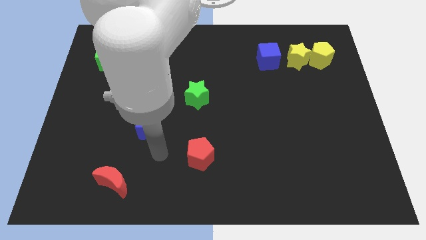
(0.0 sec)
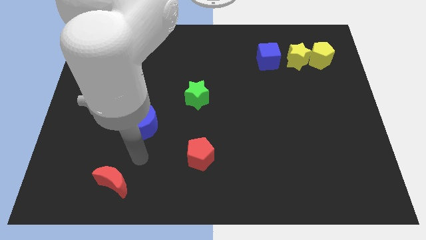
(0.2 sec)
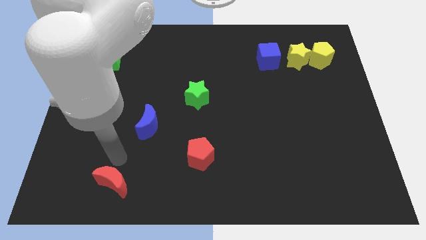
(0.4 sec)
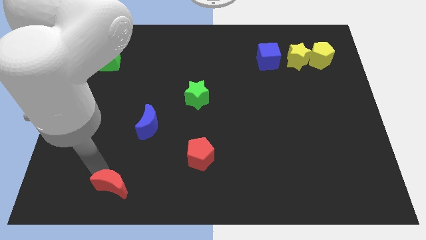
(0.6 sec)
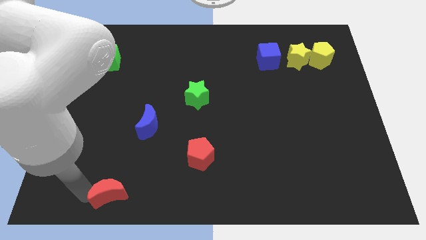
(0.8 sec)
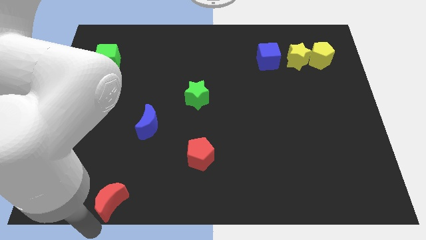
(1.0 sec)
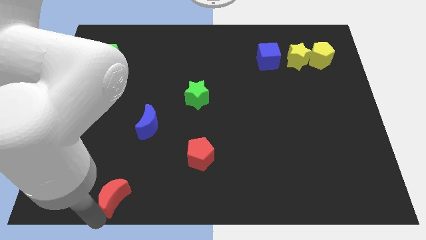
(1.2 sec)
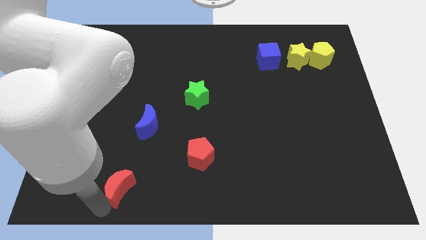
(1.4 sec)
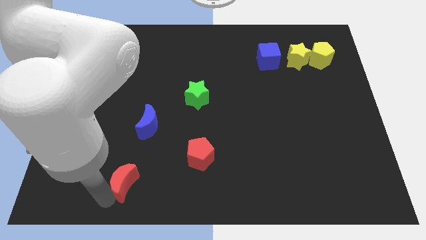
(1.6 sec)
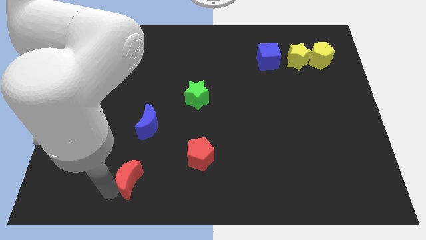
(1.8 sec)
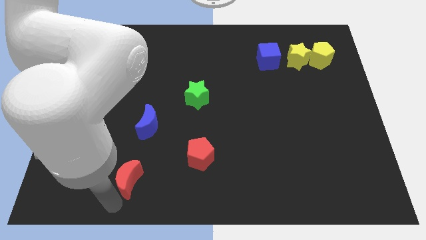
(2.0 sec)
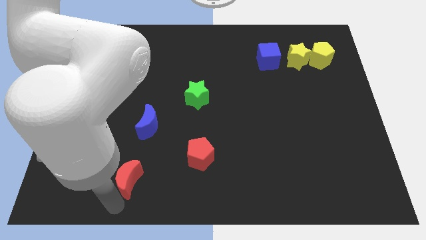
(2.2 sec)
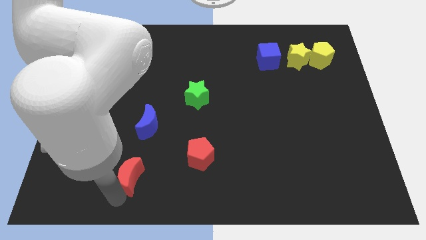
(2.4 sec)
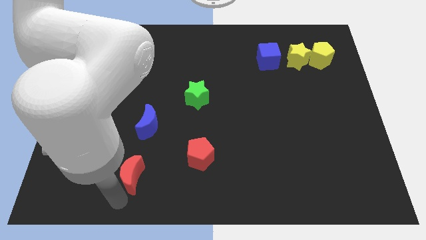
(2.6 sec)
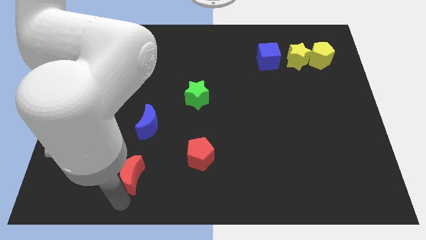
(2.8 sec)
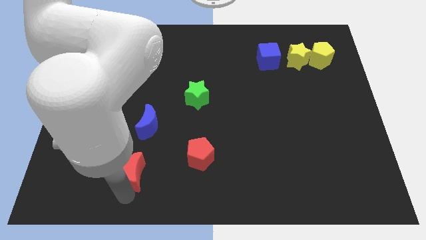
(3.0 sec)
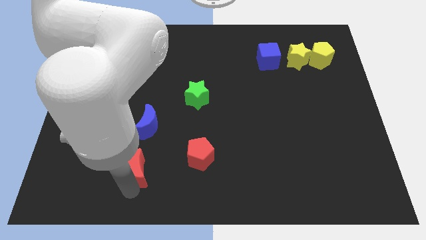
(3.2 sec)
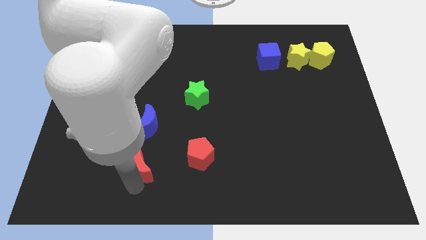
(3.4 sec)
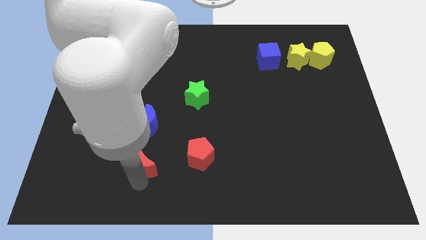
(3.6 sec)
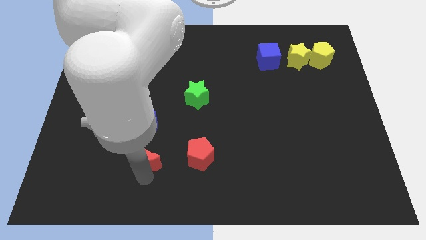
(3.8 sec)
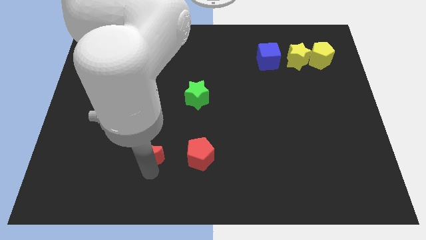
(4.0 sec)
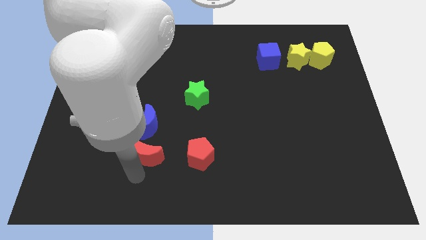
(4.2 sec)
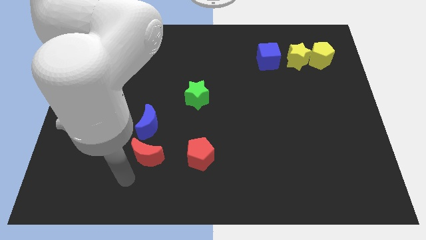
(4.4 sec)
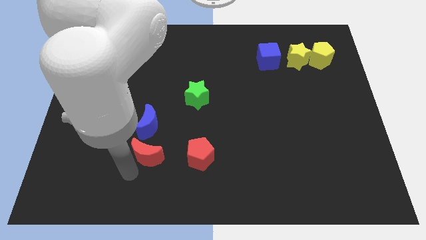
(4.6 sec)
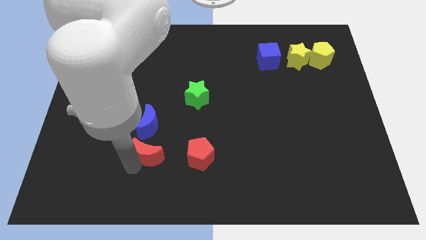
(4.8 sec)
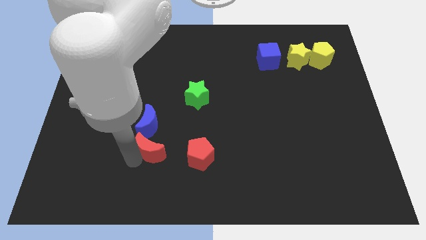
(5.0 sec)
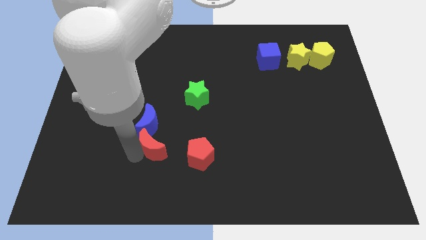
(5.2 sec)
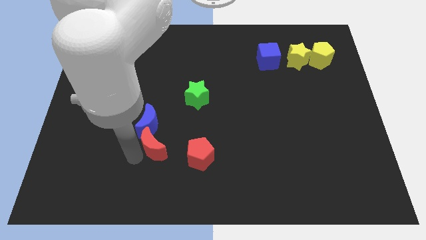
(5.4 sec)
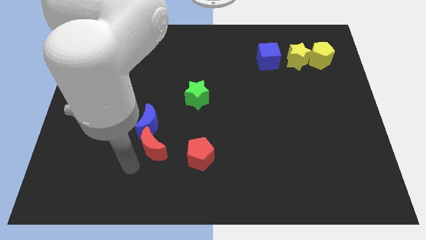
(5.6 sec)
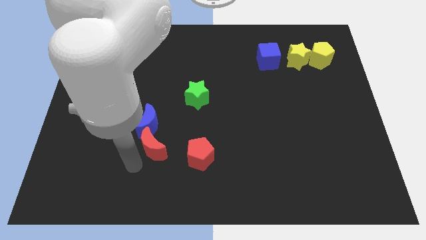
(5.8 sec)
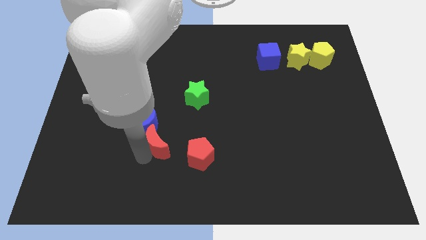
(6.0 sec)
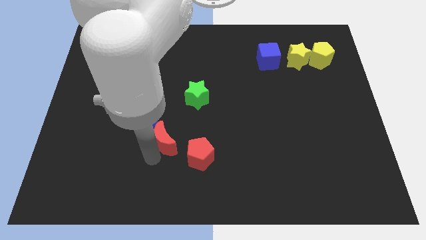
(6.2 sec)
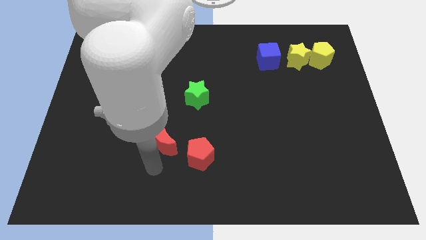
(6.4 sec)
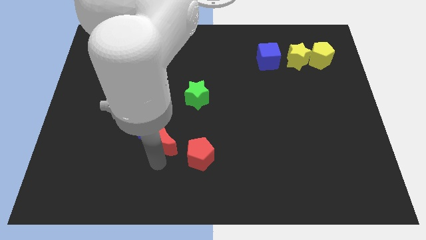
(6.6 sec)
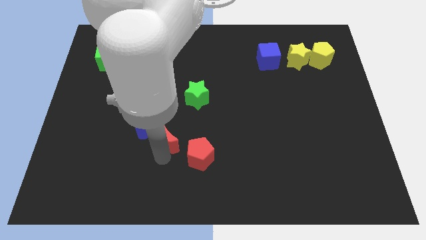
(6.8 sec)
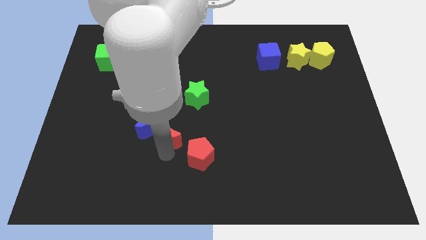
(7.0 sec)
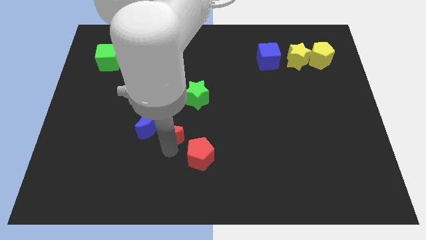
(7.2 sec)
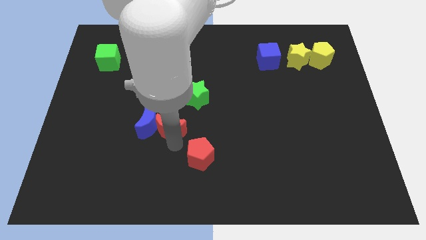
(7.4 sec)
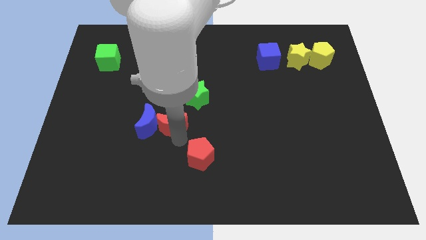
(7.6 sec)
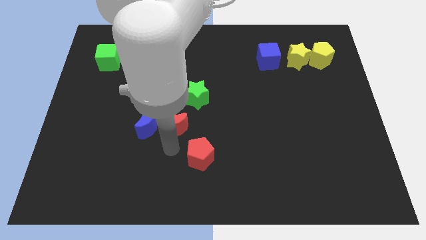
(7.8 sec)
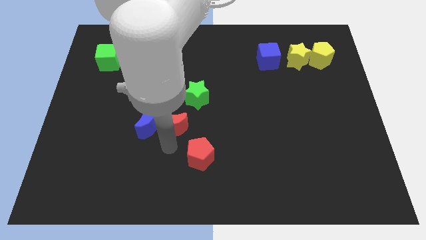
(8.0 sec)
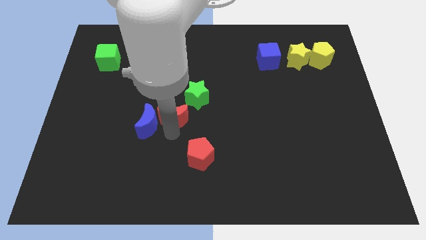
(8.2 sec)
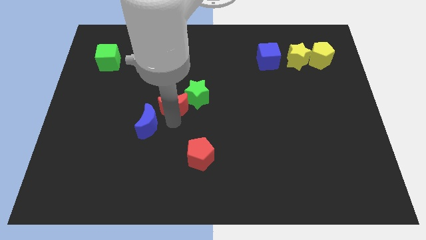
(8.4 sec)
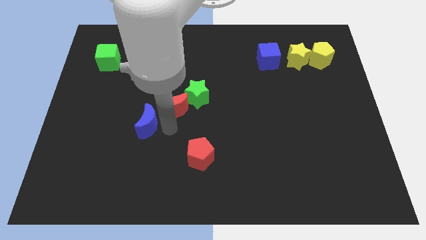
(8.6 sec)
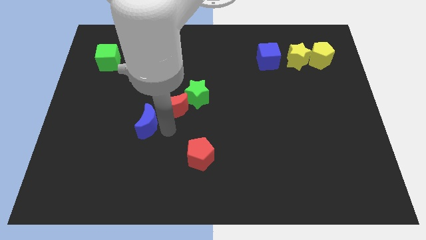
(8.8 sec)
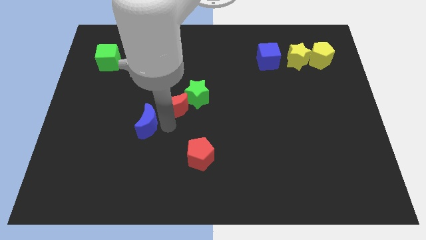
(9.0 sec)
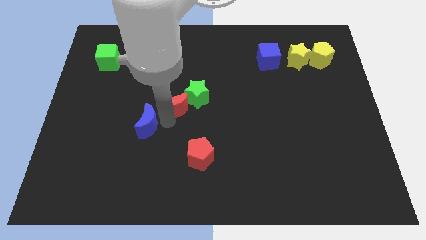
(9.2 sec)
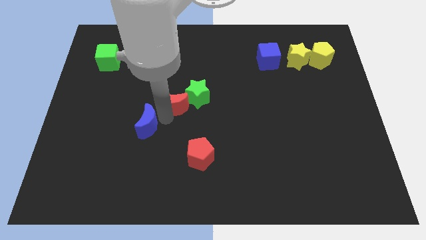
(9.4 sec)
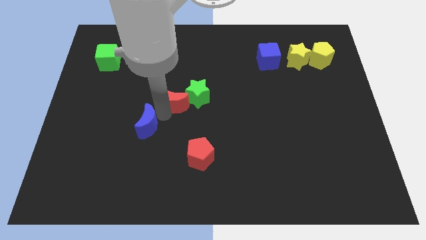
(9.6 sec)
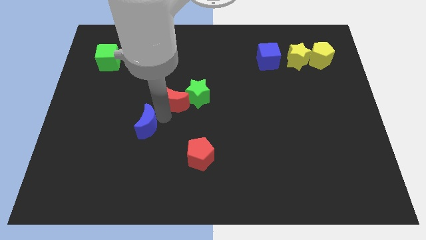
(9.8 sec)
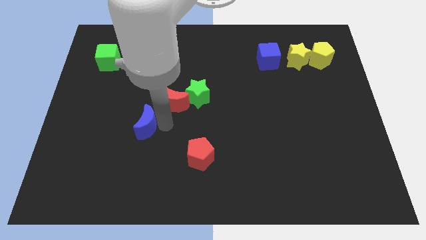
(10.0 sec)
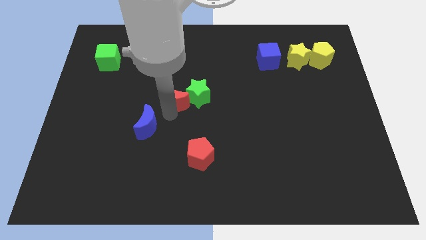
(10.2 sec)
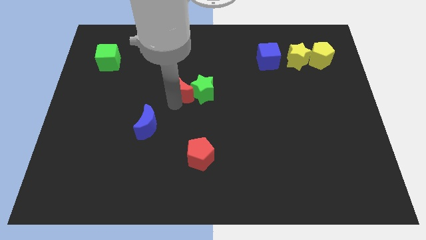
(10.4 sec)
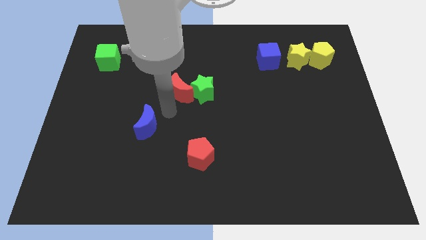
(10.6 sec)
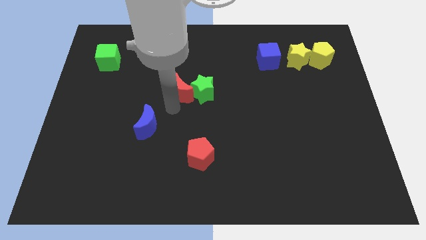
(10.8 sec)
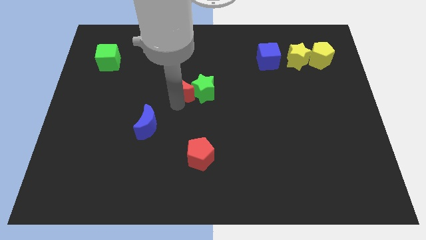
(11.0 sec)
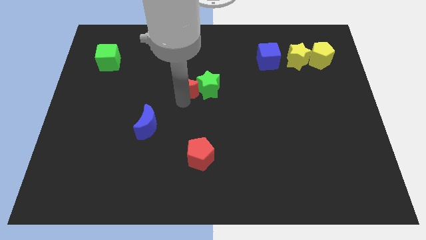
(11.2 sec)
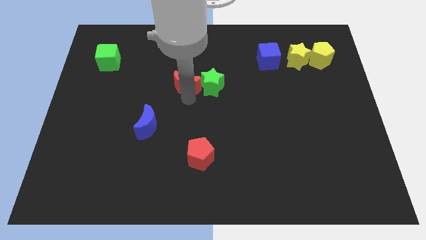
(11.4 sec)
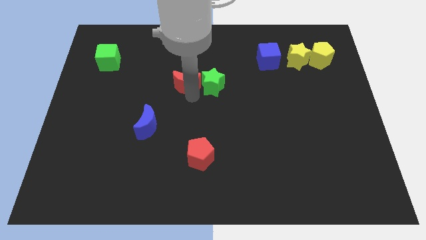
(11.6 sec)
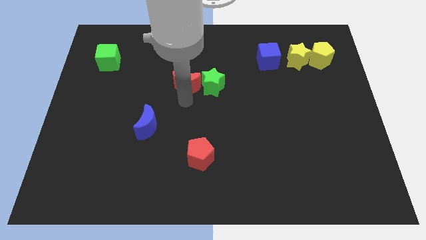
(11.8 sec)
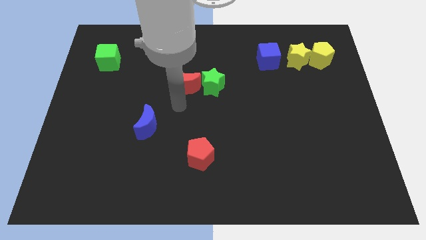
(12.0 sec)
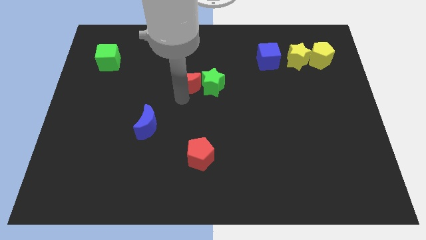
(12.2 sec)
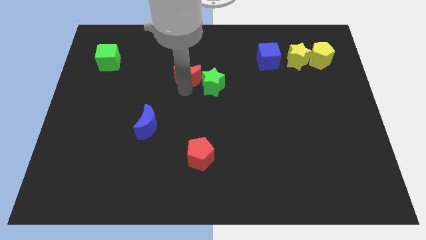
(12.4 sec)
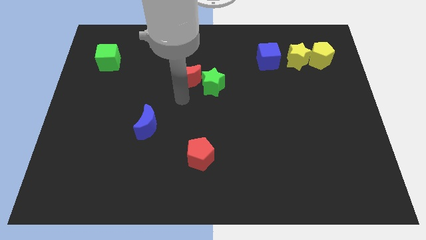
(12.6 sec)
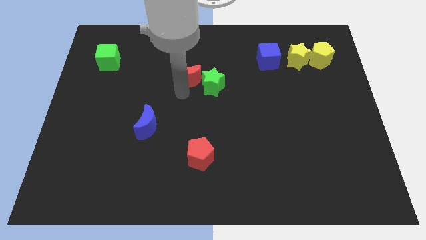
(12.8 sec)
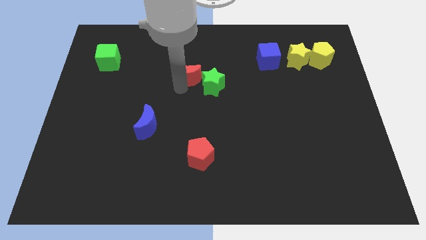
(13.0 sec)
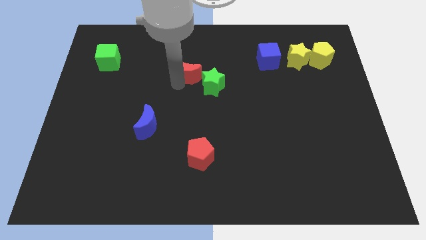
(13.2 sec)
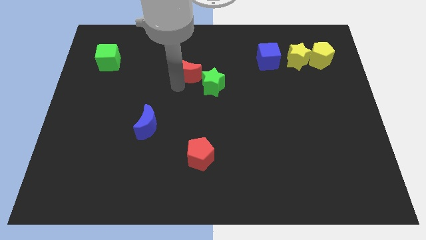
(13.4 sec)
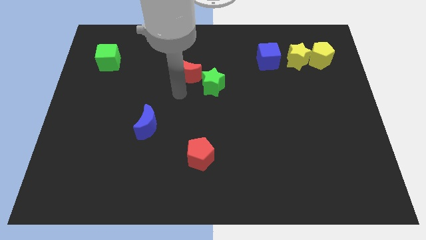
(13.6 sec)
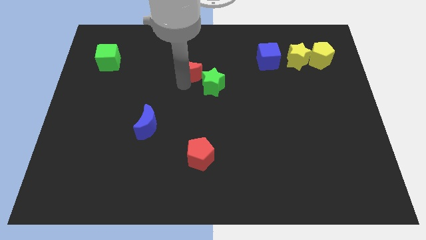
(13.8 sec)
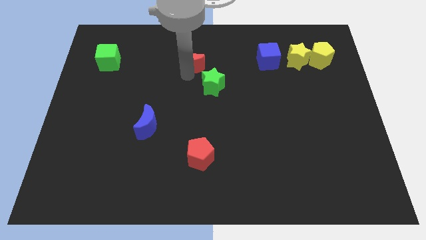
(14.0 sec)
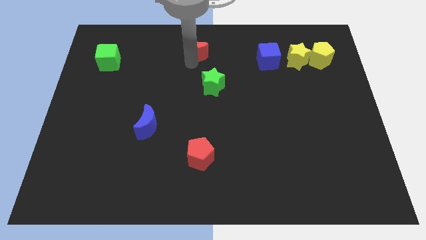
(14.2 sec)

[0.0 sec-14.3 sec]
move the red moon to the top side

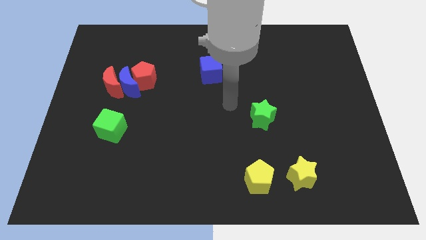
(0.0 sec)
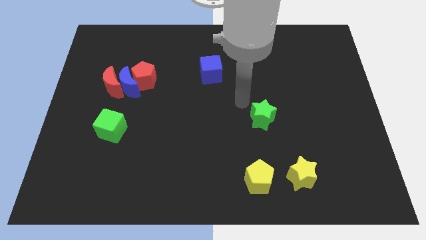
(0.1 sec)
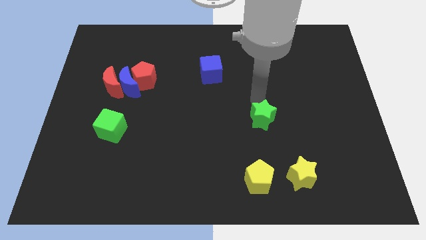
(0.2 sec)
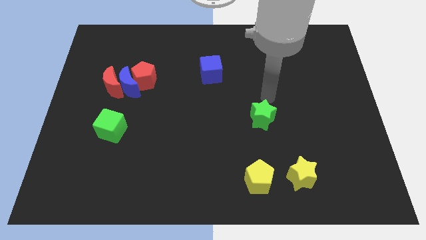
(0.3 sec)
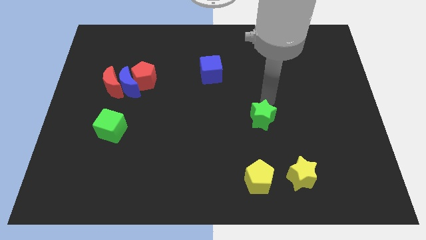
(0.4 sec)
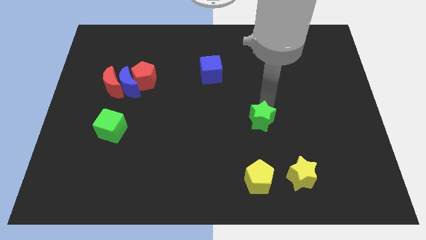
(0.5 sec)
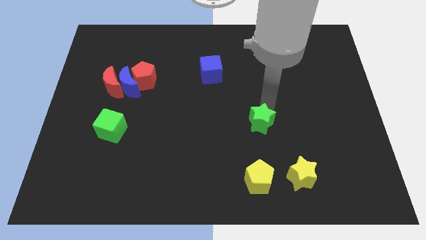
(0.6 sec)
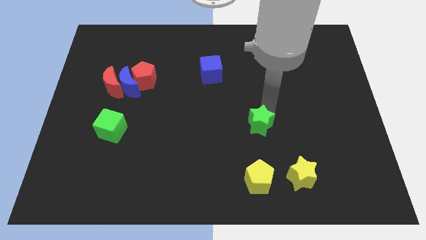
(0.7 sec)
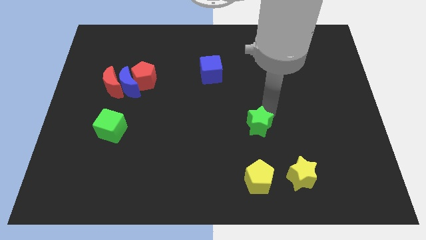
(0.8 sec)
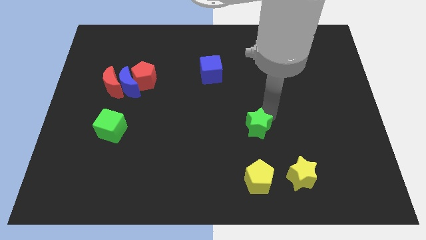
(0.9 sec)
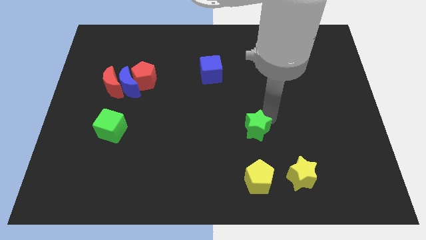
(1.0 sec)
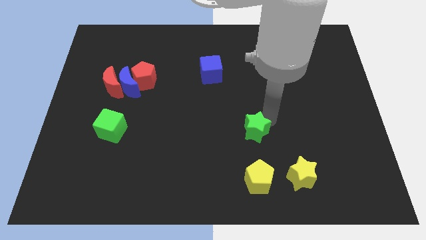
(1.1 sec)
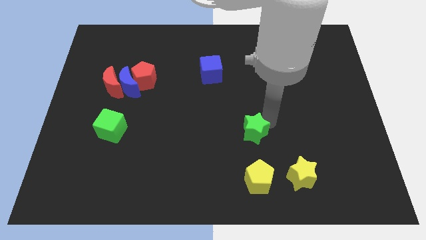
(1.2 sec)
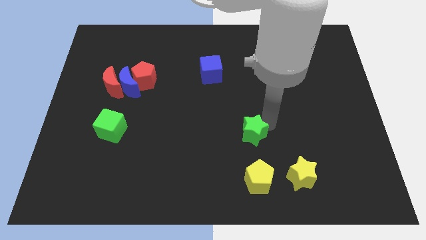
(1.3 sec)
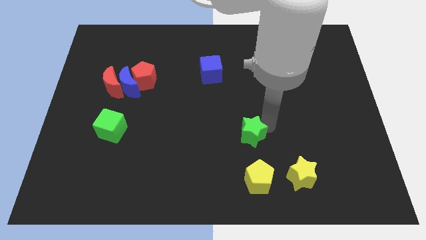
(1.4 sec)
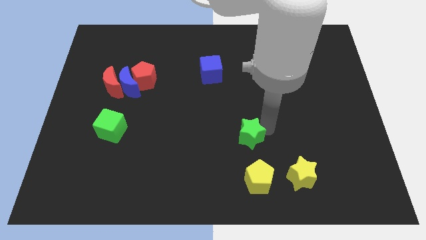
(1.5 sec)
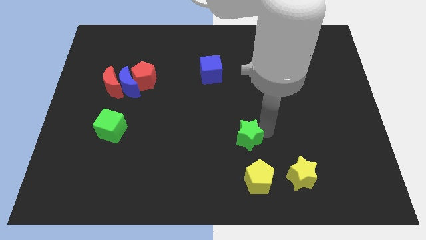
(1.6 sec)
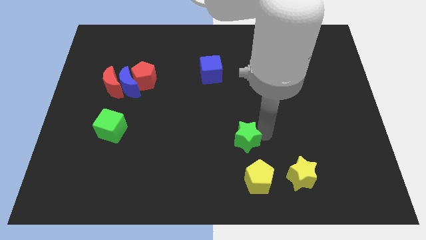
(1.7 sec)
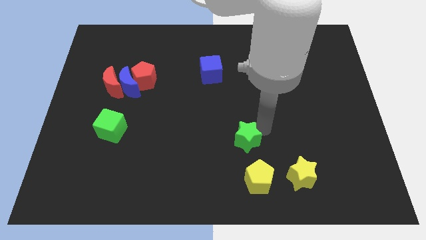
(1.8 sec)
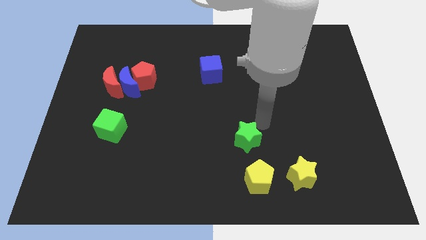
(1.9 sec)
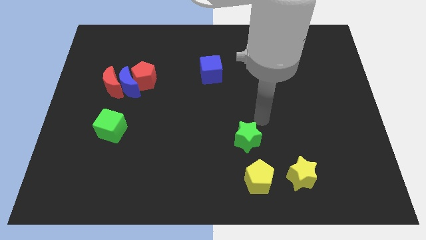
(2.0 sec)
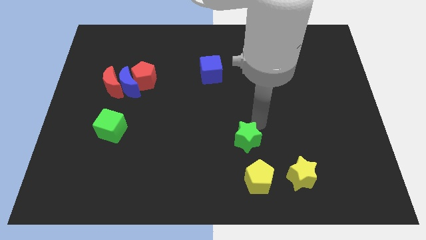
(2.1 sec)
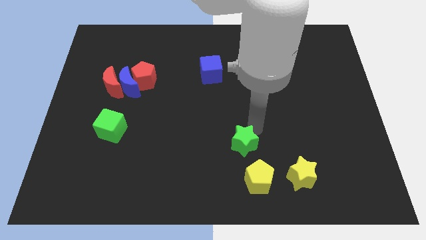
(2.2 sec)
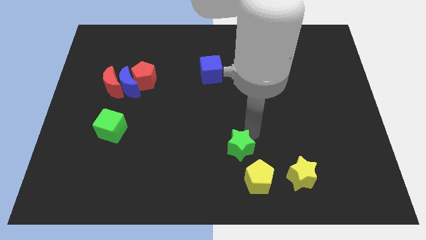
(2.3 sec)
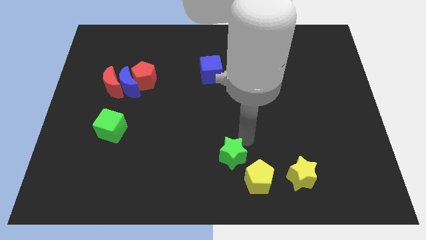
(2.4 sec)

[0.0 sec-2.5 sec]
slide the green star to the bottom
